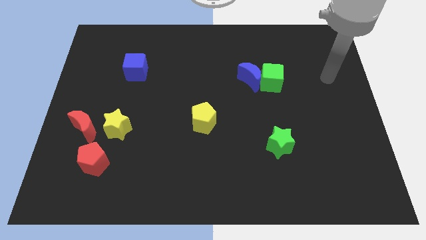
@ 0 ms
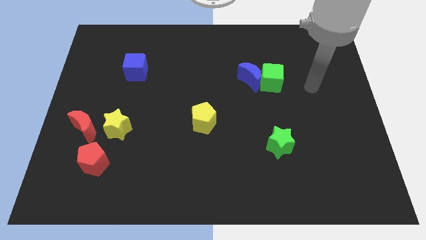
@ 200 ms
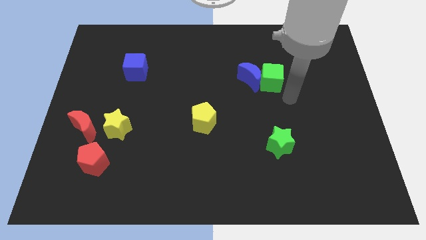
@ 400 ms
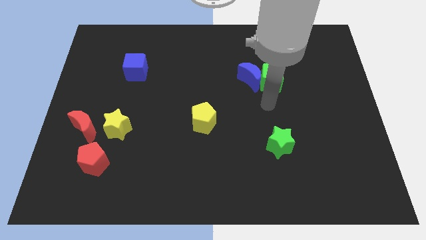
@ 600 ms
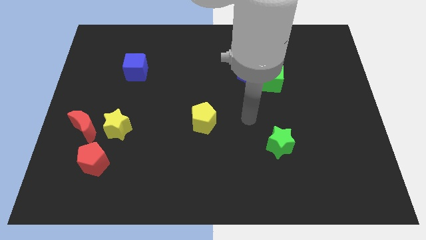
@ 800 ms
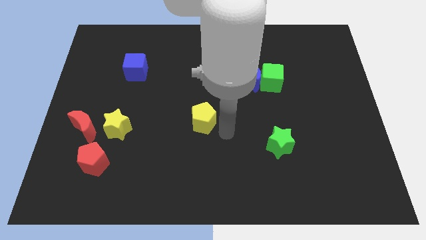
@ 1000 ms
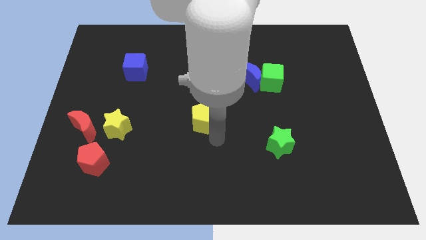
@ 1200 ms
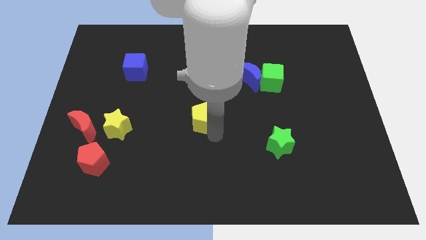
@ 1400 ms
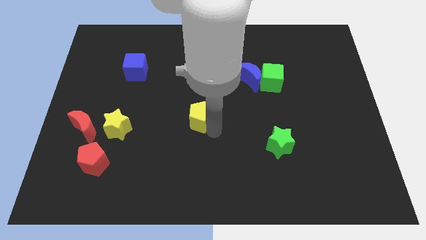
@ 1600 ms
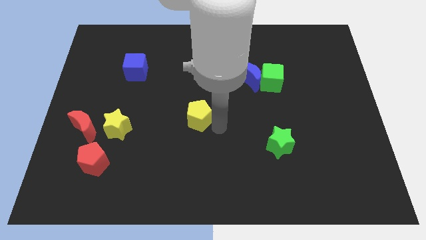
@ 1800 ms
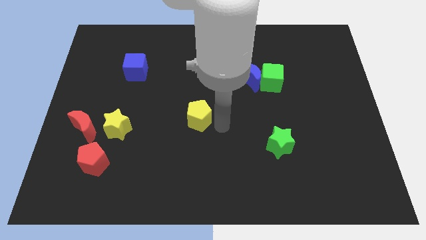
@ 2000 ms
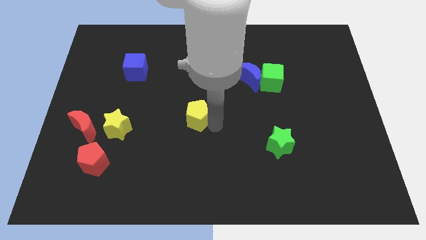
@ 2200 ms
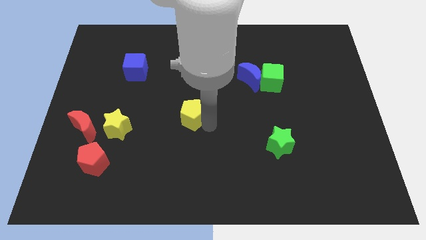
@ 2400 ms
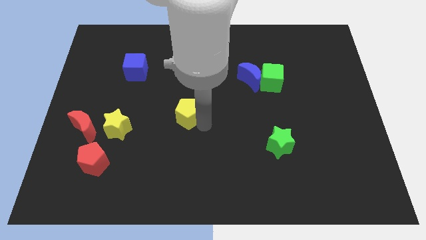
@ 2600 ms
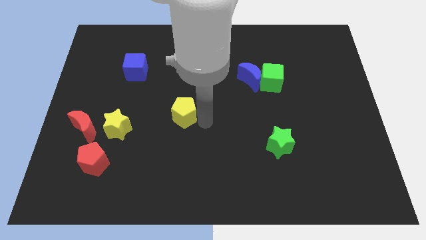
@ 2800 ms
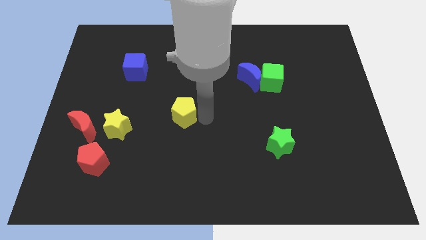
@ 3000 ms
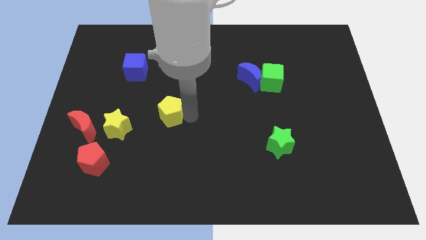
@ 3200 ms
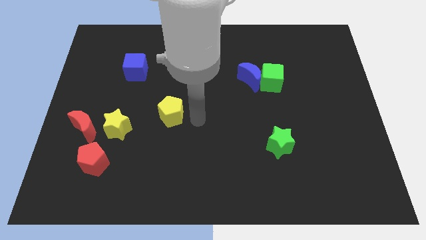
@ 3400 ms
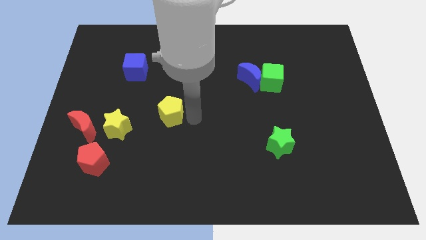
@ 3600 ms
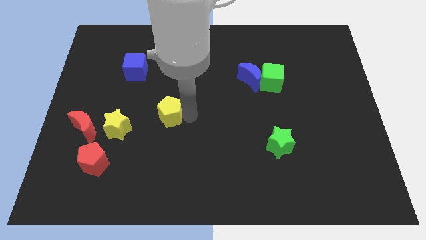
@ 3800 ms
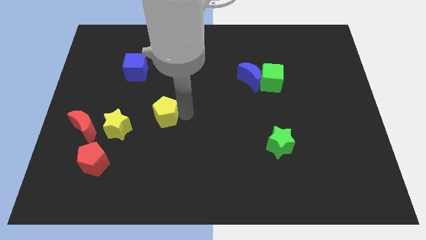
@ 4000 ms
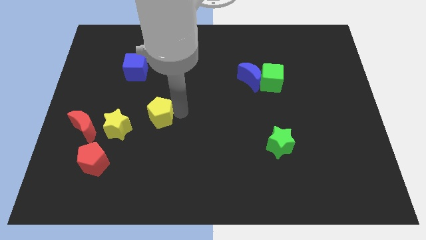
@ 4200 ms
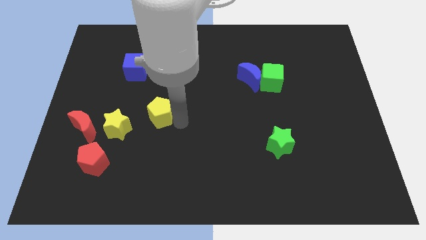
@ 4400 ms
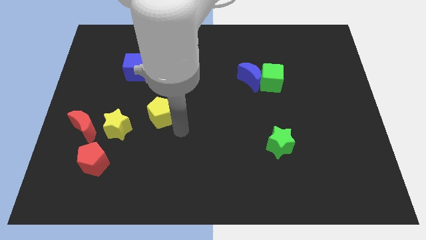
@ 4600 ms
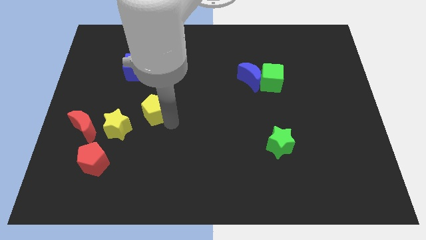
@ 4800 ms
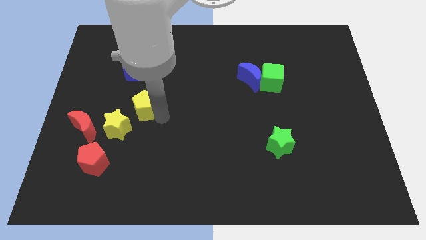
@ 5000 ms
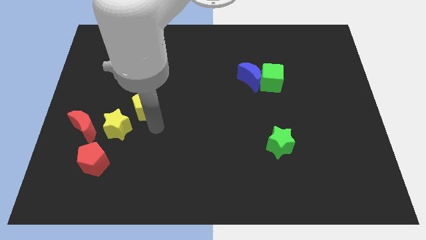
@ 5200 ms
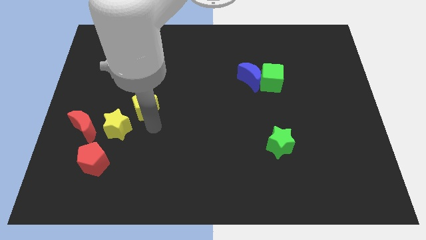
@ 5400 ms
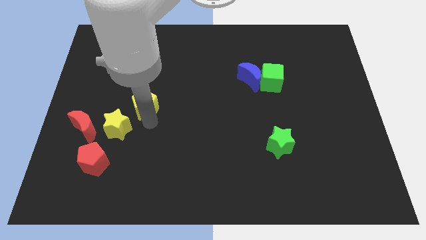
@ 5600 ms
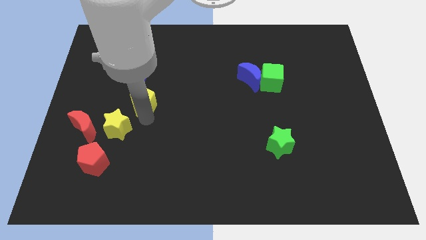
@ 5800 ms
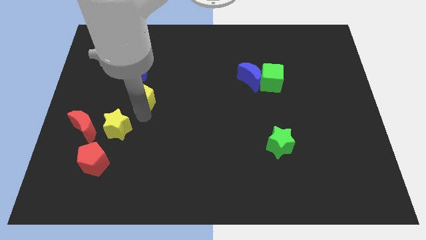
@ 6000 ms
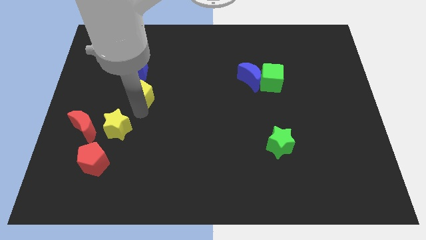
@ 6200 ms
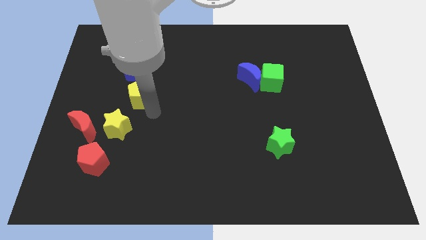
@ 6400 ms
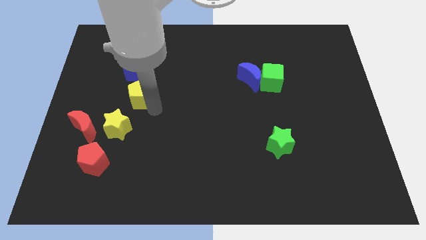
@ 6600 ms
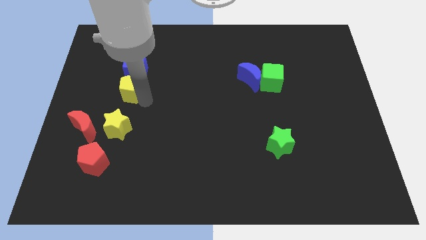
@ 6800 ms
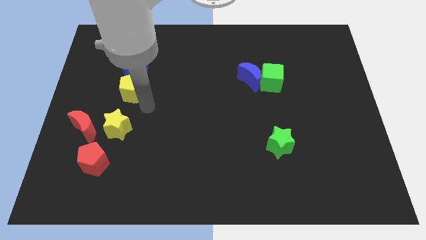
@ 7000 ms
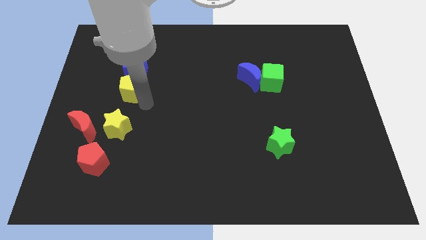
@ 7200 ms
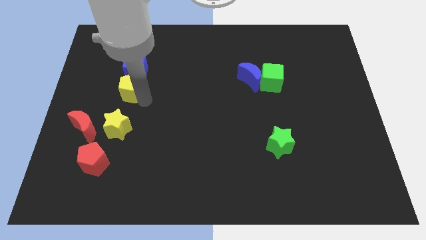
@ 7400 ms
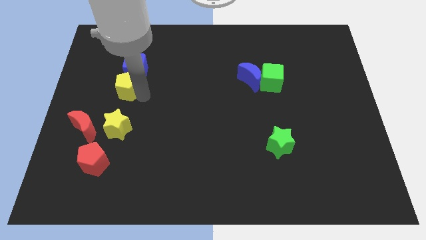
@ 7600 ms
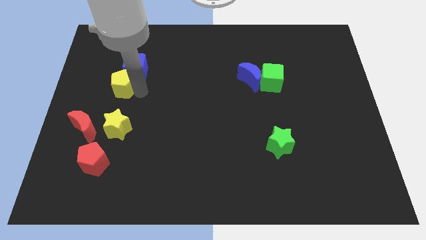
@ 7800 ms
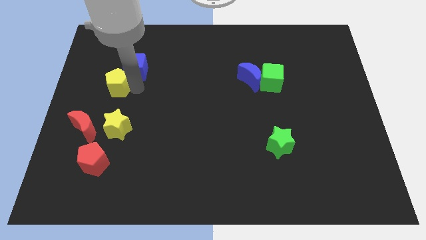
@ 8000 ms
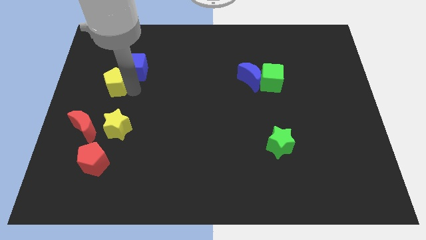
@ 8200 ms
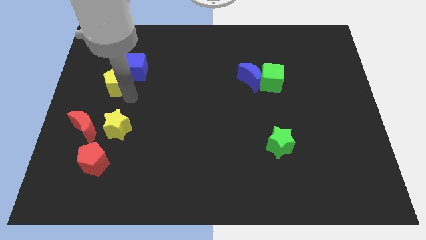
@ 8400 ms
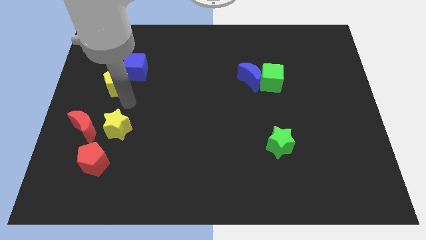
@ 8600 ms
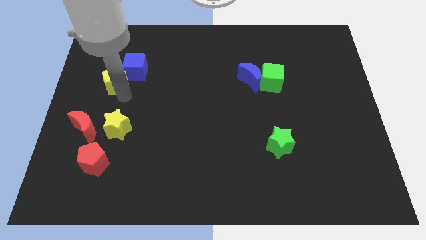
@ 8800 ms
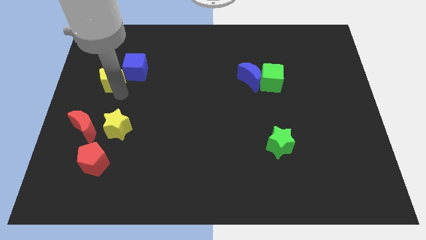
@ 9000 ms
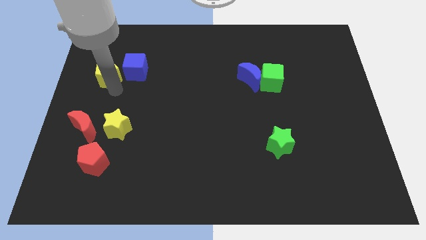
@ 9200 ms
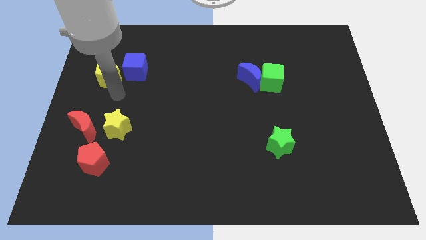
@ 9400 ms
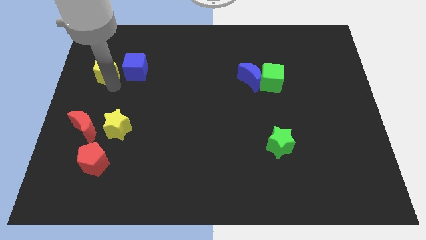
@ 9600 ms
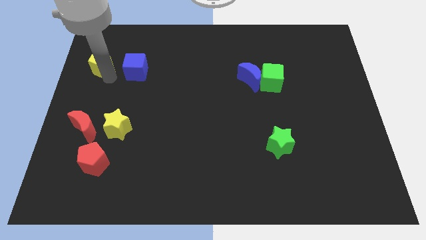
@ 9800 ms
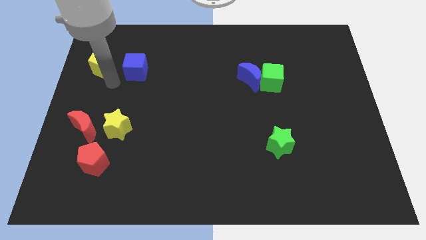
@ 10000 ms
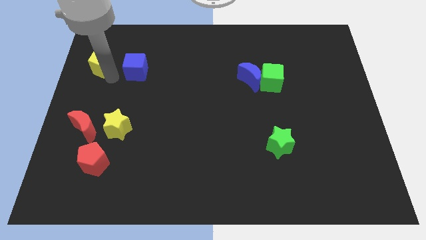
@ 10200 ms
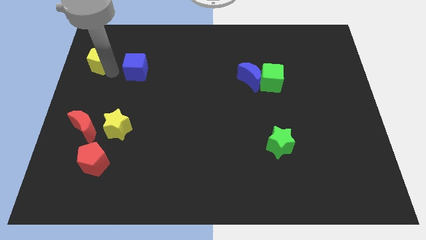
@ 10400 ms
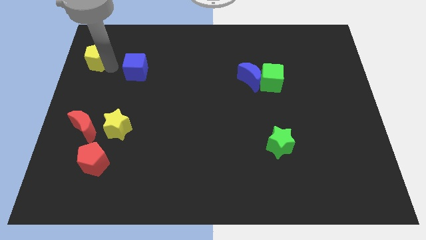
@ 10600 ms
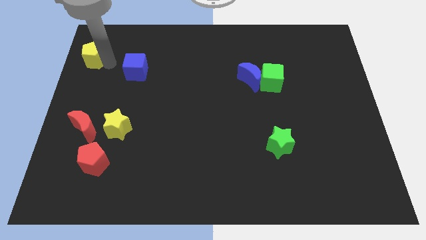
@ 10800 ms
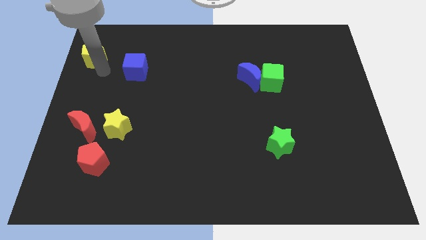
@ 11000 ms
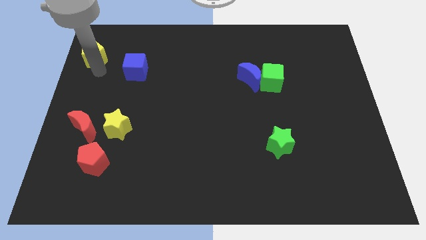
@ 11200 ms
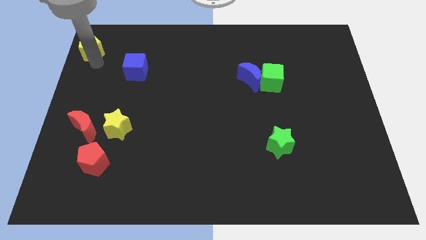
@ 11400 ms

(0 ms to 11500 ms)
put the yellow pentagon to the top left corner
